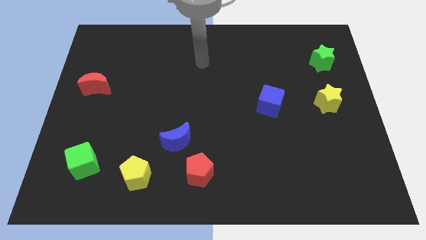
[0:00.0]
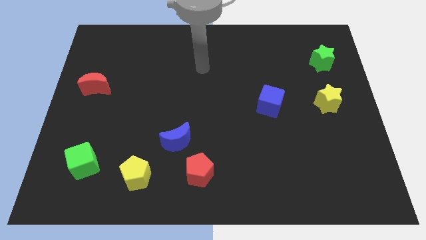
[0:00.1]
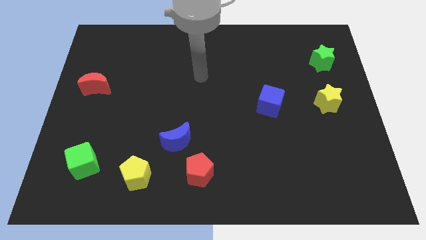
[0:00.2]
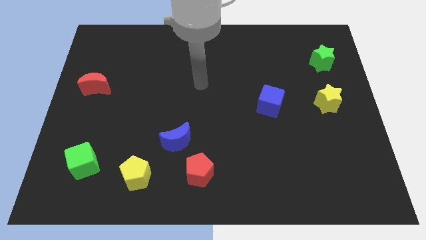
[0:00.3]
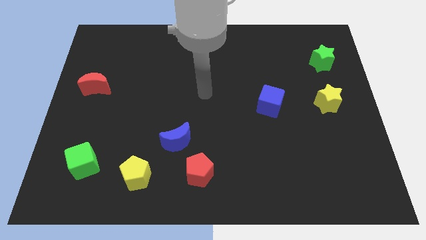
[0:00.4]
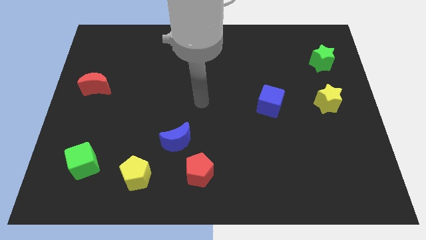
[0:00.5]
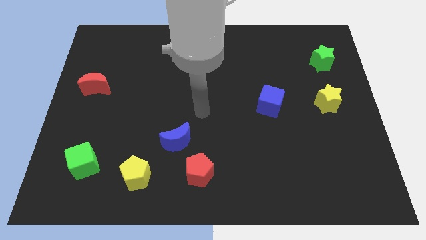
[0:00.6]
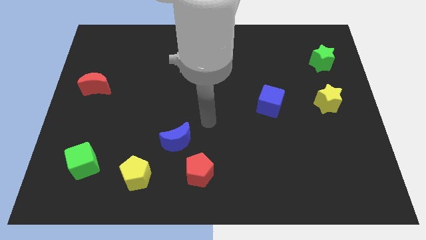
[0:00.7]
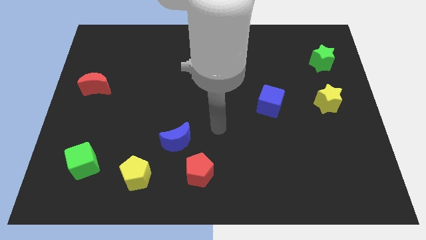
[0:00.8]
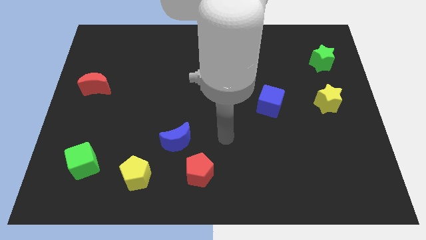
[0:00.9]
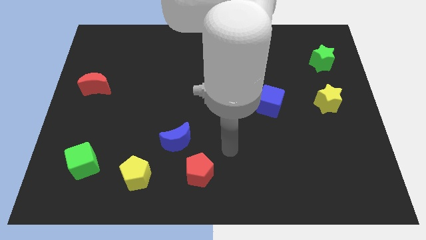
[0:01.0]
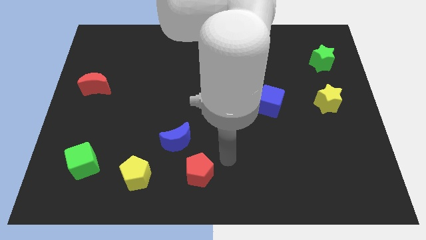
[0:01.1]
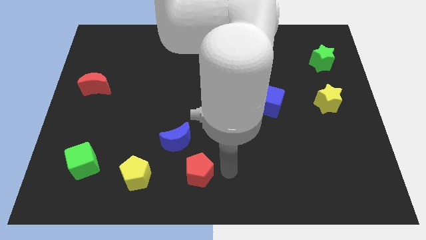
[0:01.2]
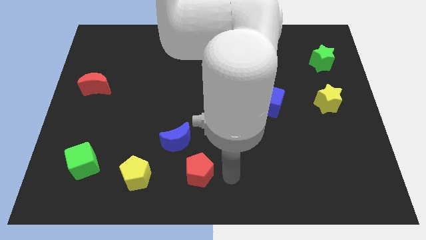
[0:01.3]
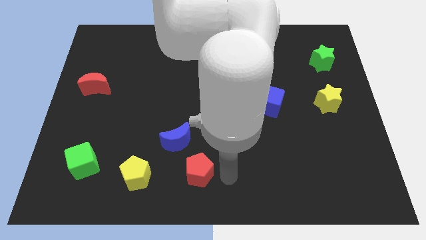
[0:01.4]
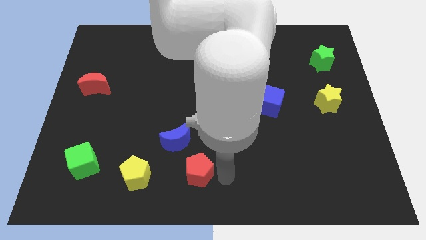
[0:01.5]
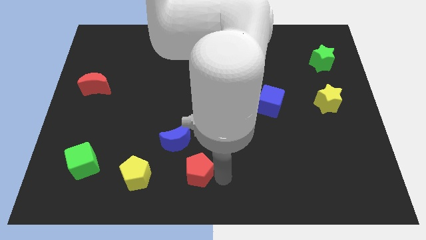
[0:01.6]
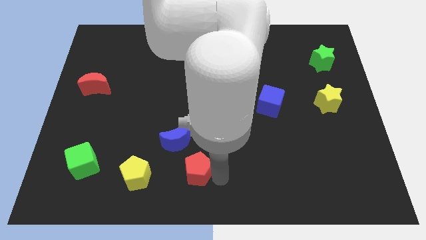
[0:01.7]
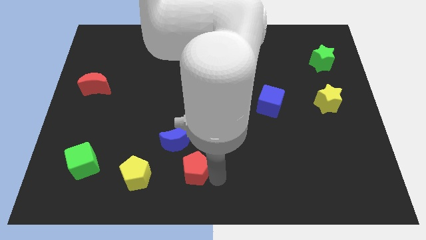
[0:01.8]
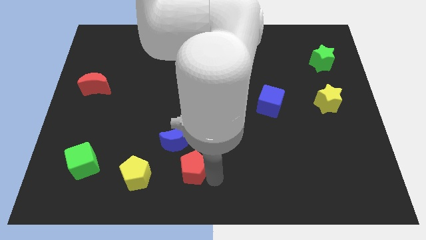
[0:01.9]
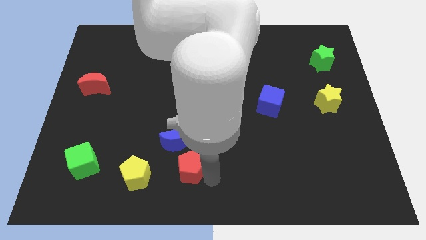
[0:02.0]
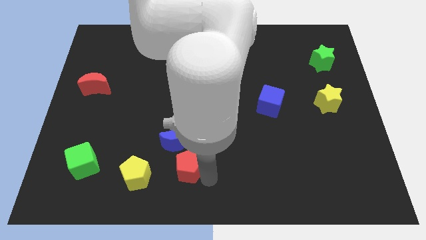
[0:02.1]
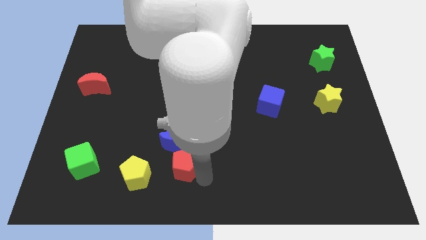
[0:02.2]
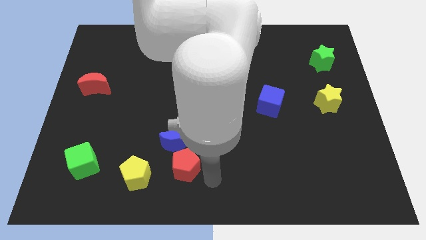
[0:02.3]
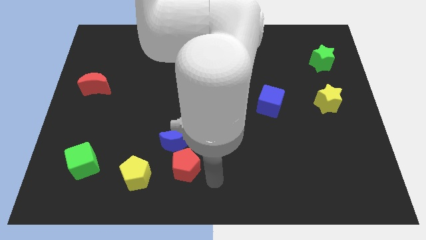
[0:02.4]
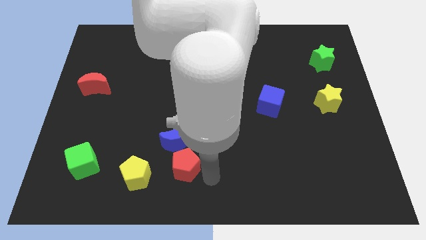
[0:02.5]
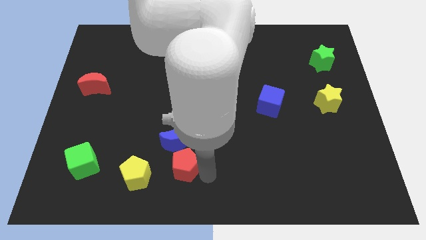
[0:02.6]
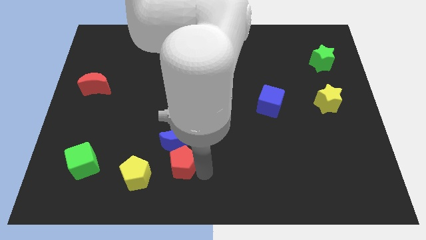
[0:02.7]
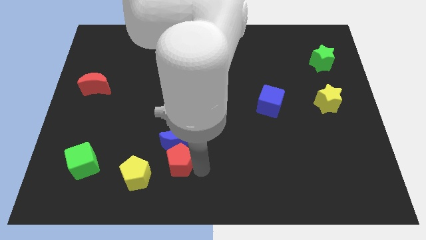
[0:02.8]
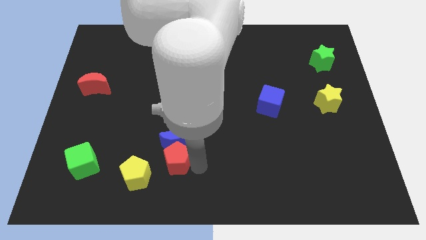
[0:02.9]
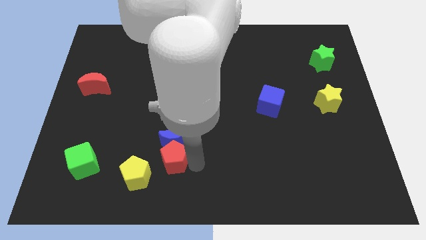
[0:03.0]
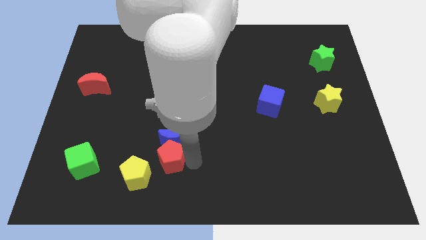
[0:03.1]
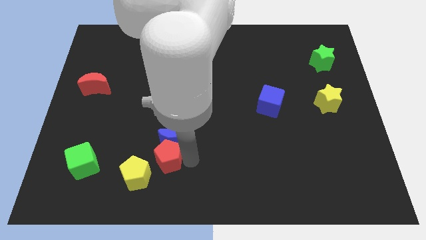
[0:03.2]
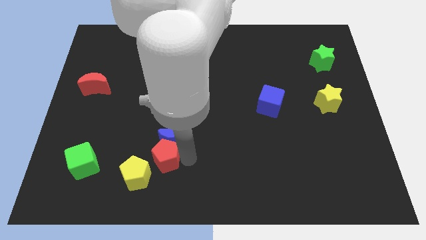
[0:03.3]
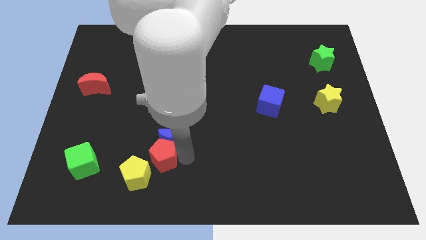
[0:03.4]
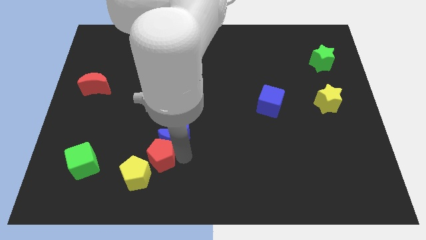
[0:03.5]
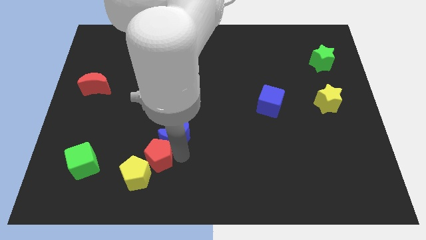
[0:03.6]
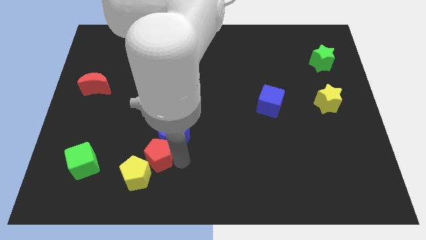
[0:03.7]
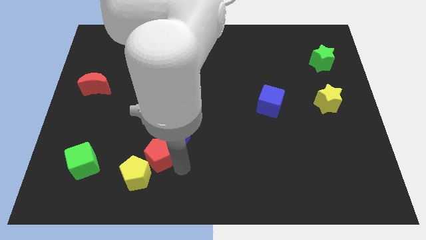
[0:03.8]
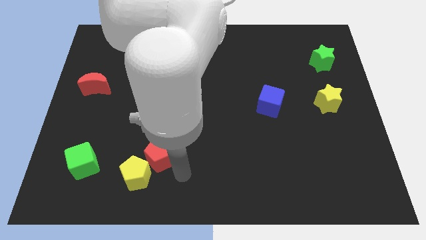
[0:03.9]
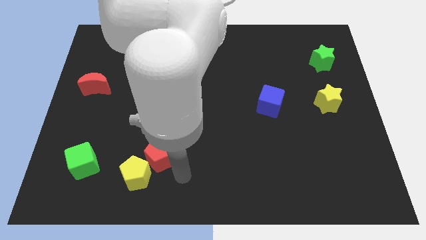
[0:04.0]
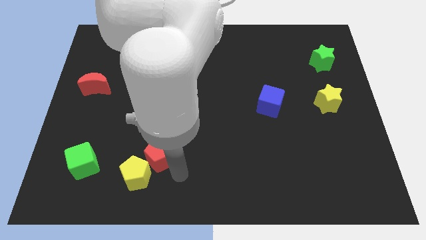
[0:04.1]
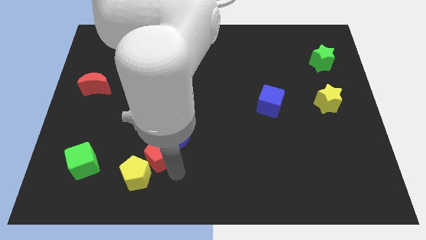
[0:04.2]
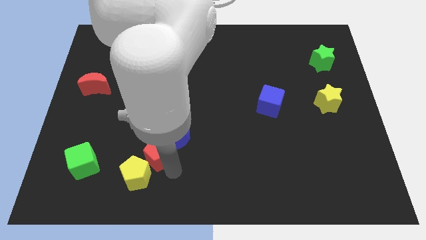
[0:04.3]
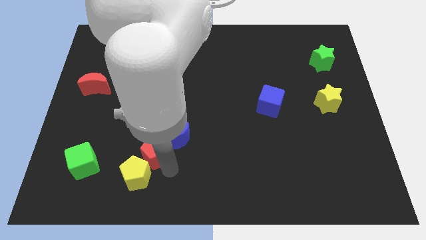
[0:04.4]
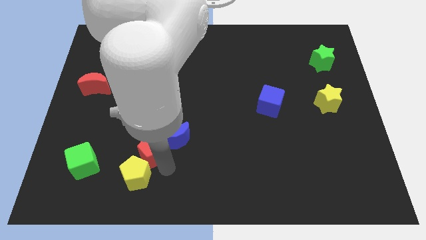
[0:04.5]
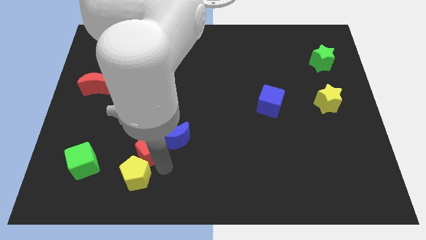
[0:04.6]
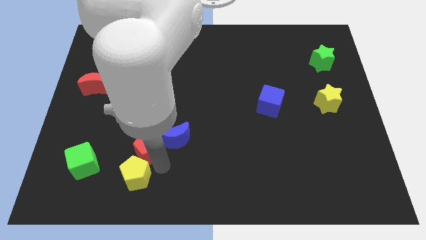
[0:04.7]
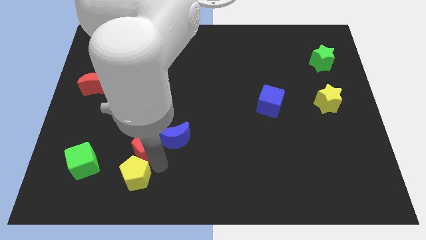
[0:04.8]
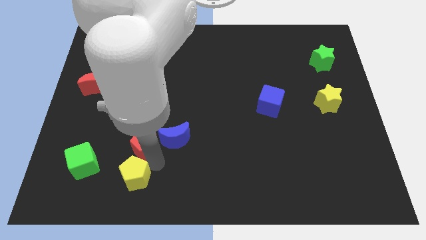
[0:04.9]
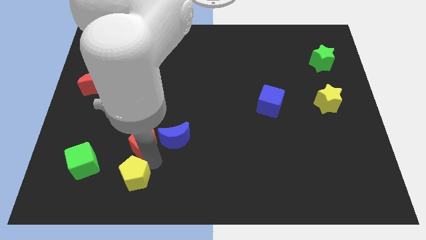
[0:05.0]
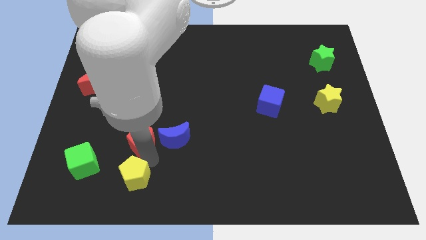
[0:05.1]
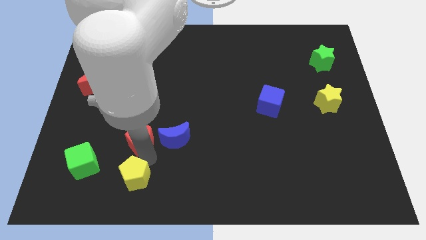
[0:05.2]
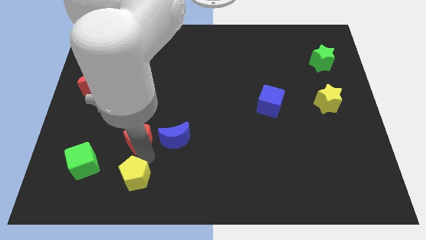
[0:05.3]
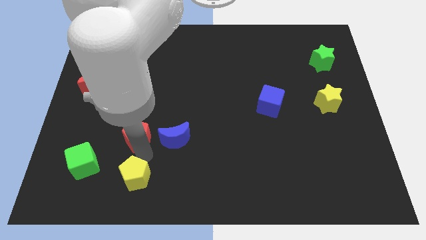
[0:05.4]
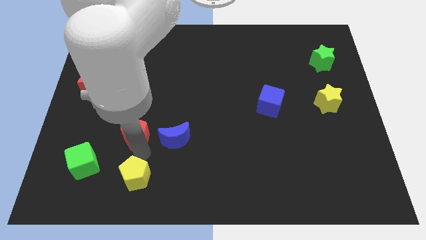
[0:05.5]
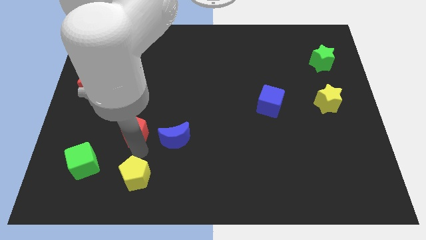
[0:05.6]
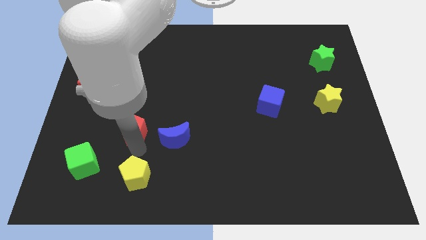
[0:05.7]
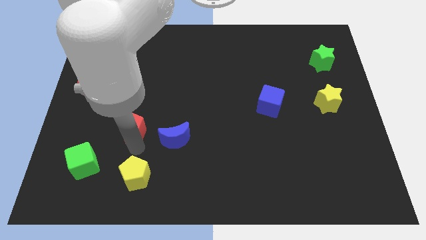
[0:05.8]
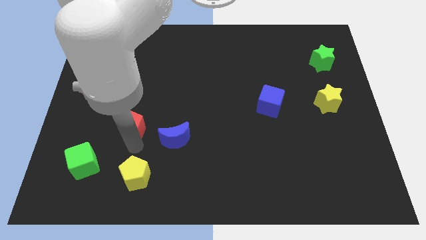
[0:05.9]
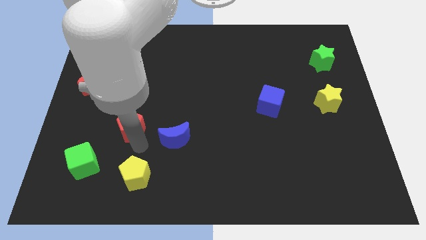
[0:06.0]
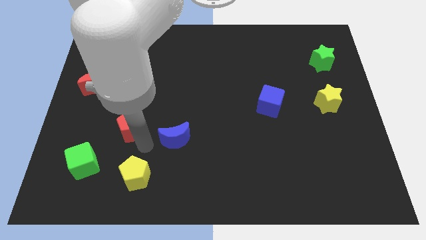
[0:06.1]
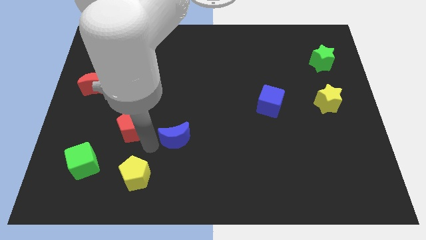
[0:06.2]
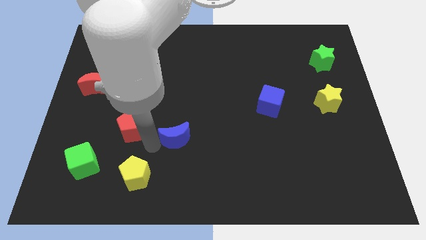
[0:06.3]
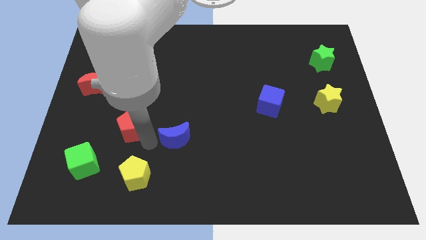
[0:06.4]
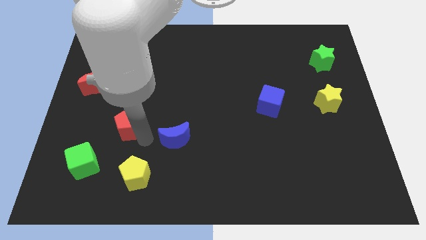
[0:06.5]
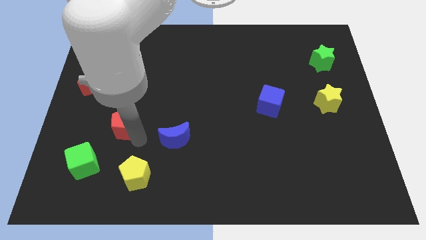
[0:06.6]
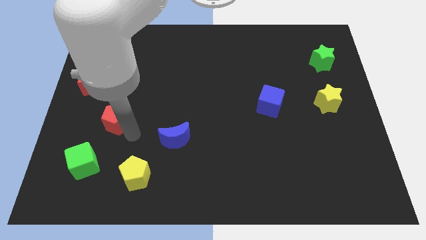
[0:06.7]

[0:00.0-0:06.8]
slide the red pentagon diagonally down and to the right of the red moon

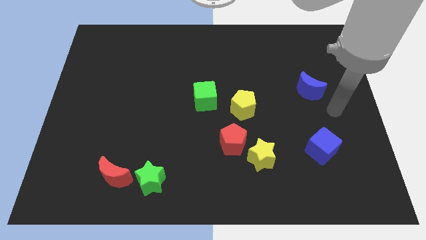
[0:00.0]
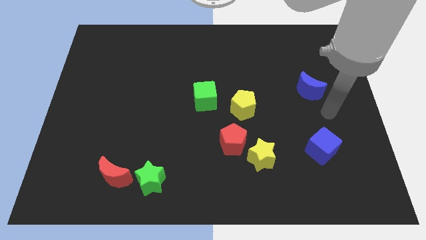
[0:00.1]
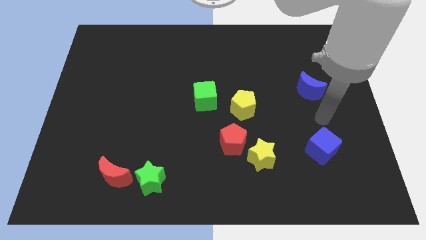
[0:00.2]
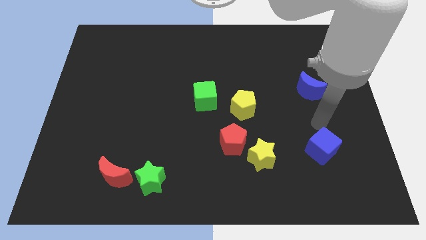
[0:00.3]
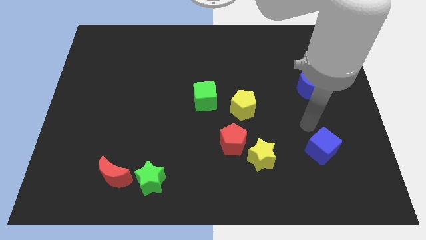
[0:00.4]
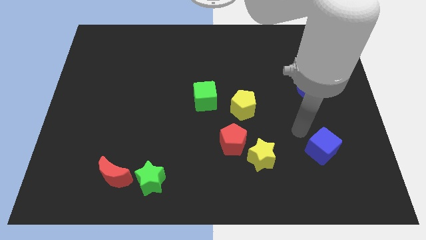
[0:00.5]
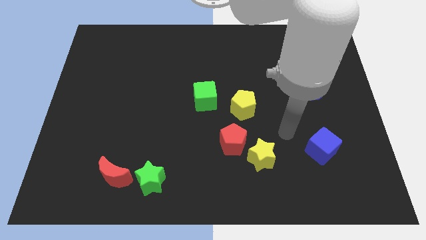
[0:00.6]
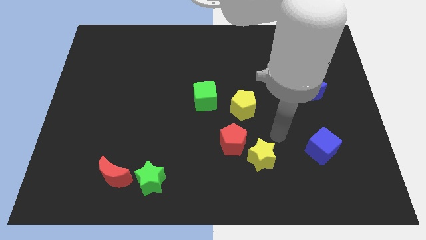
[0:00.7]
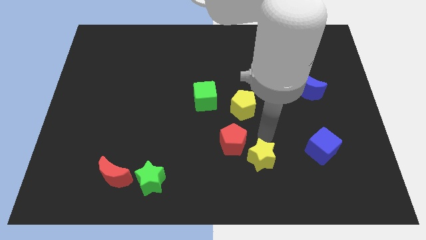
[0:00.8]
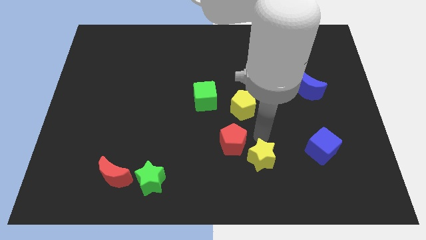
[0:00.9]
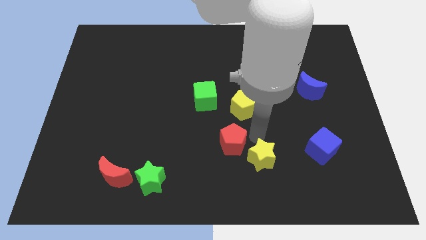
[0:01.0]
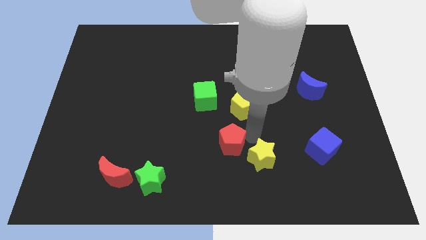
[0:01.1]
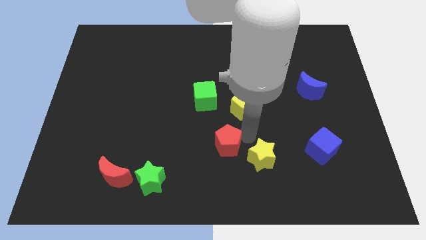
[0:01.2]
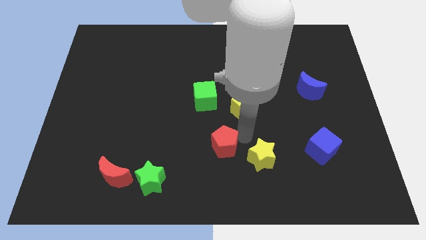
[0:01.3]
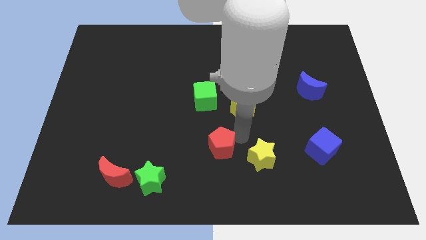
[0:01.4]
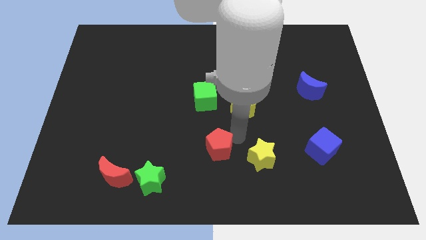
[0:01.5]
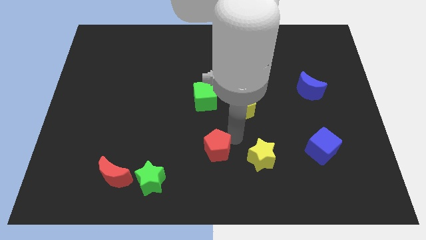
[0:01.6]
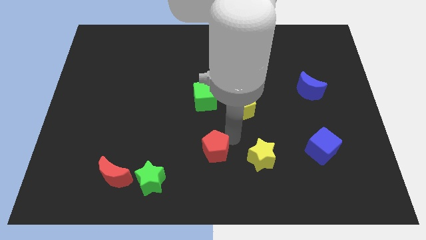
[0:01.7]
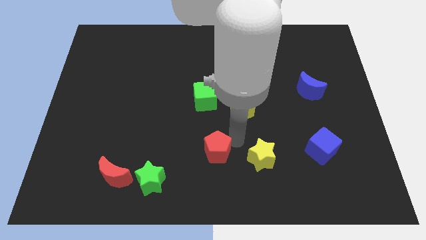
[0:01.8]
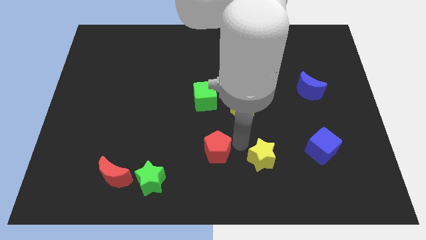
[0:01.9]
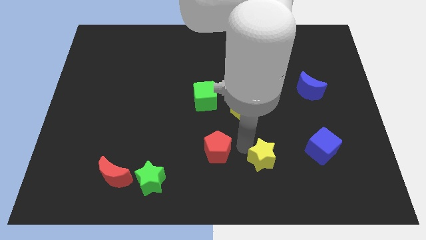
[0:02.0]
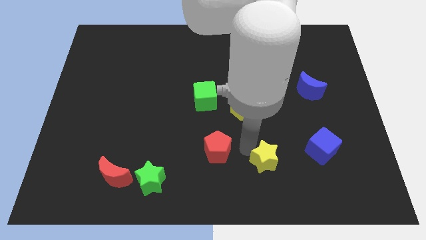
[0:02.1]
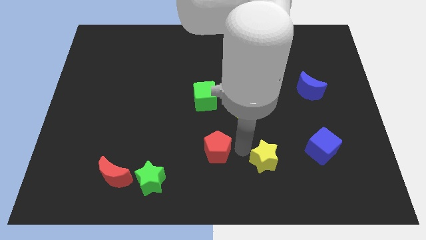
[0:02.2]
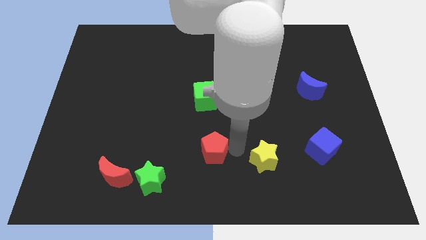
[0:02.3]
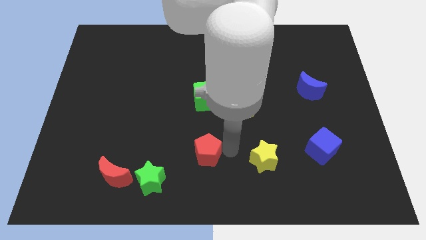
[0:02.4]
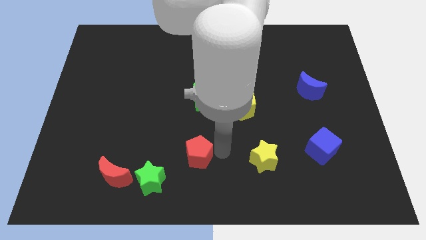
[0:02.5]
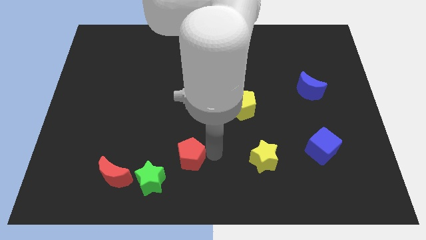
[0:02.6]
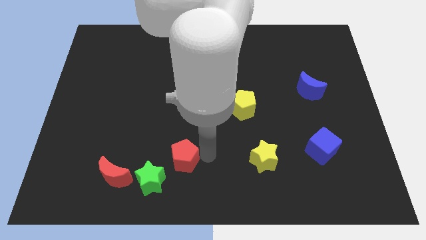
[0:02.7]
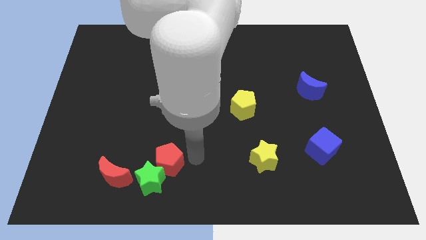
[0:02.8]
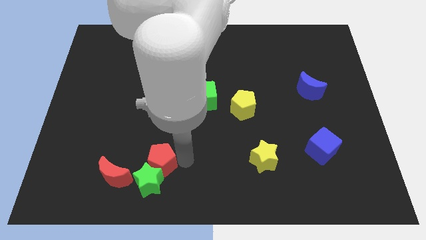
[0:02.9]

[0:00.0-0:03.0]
slide the red pentagon diagonally up and to the left of the green star
